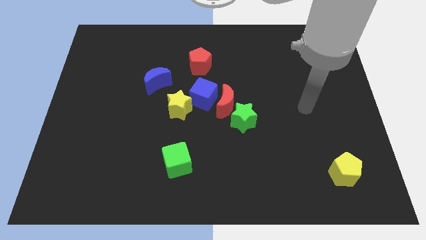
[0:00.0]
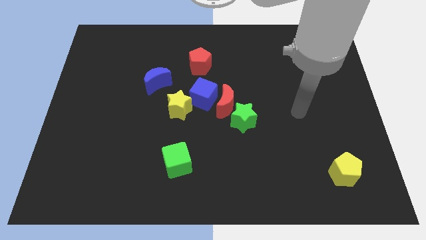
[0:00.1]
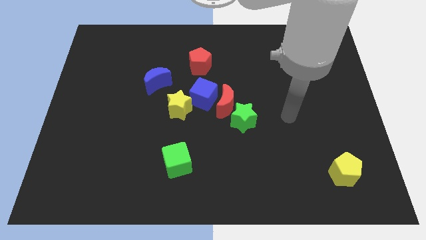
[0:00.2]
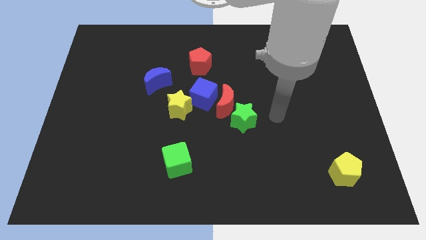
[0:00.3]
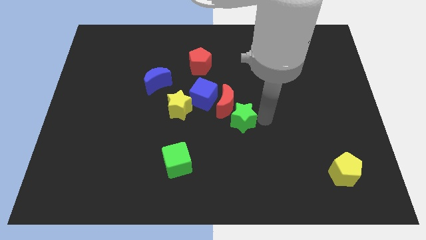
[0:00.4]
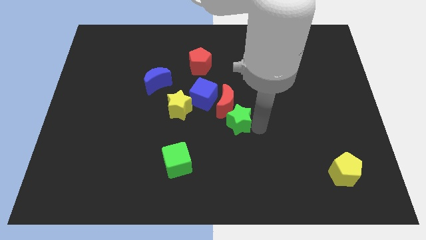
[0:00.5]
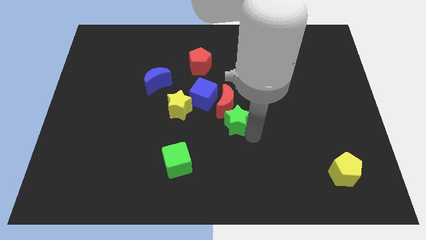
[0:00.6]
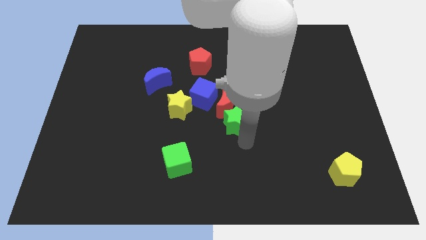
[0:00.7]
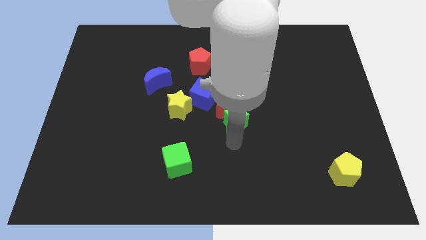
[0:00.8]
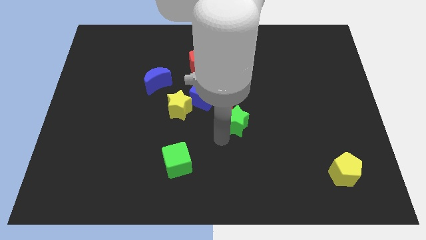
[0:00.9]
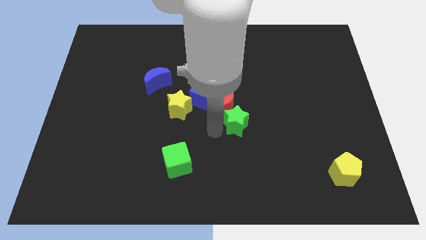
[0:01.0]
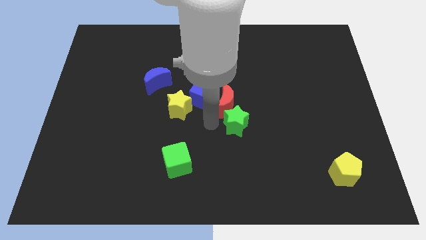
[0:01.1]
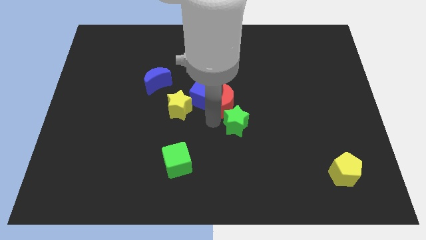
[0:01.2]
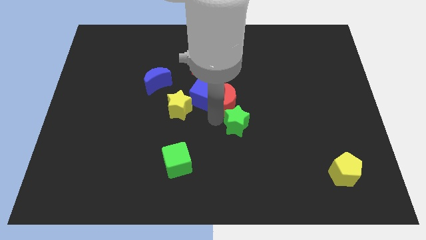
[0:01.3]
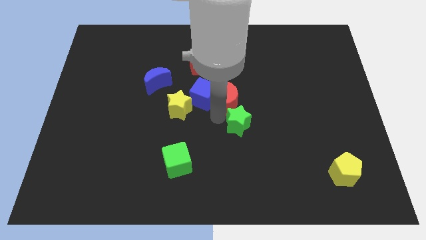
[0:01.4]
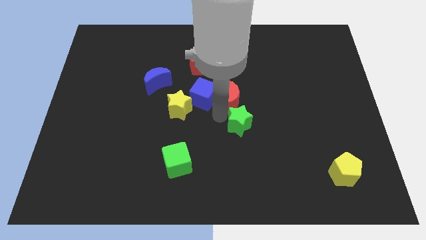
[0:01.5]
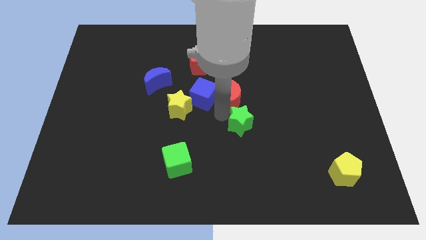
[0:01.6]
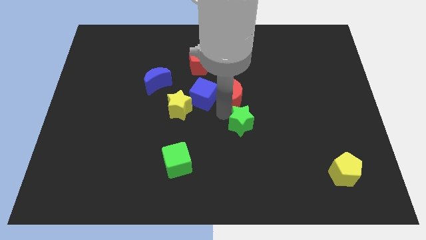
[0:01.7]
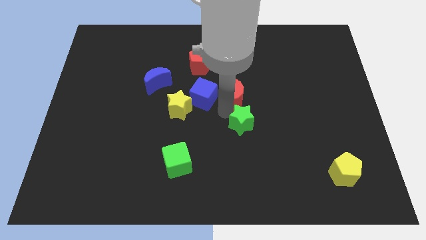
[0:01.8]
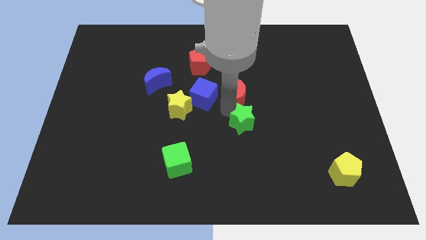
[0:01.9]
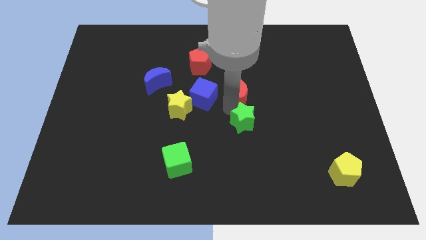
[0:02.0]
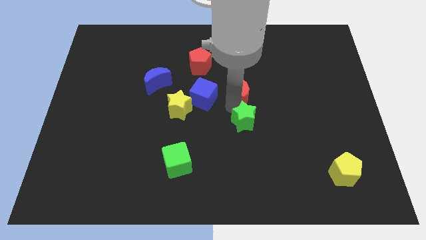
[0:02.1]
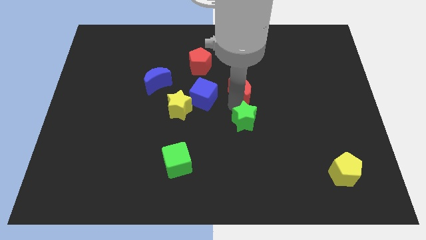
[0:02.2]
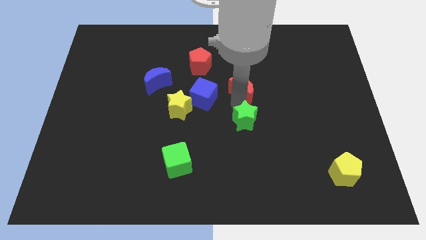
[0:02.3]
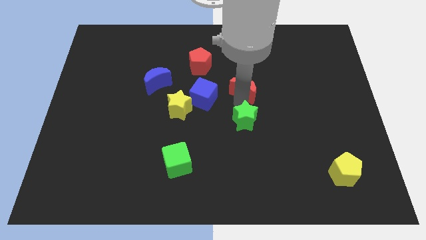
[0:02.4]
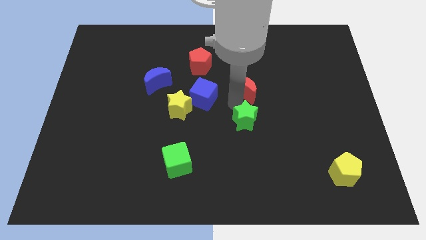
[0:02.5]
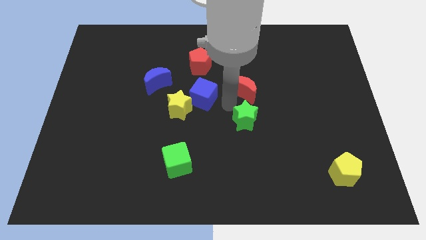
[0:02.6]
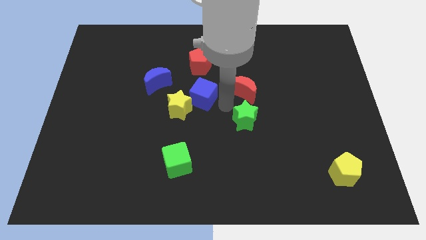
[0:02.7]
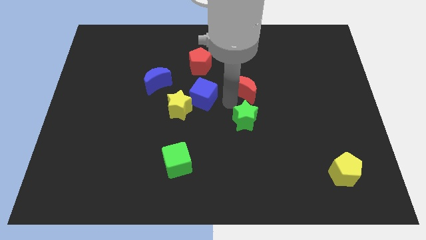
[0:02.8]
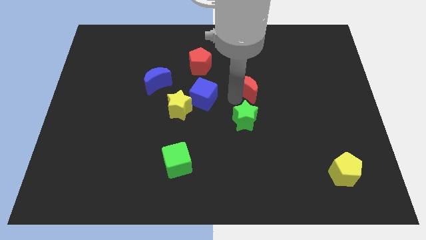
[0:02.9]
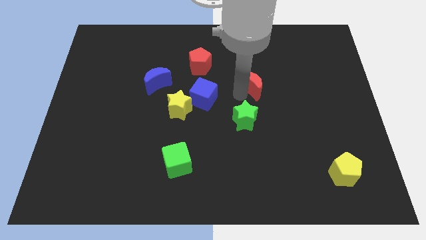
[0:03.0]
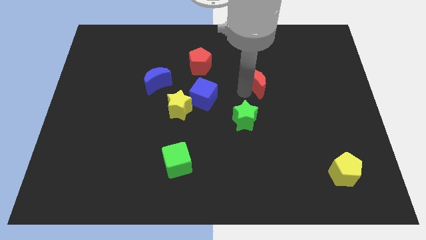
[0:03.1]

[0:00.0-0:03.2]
pull the red moon apart from the blue cube and green star

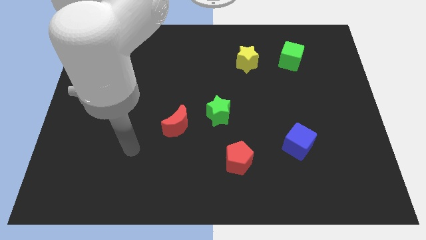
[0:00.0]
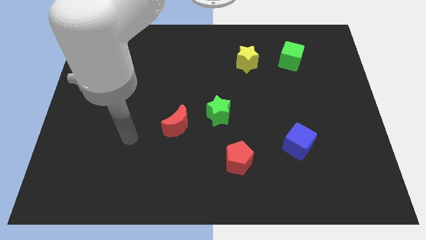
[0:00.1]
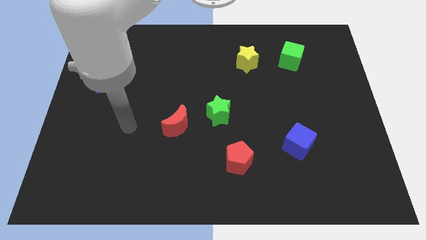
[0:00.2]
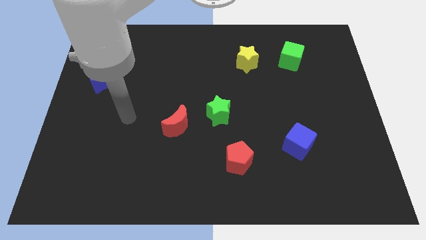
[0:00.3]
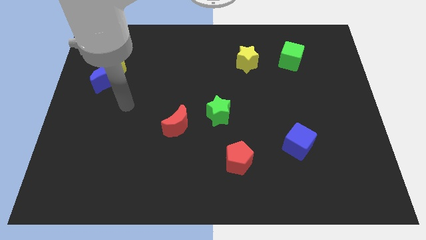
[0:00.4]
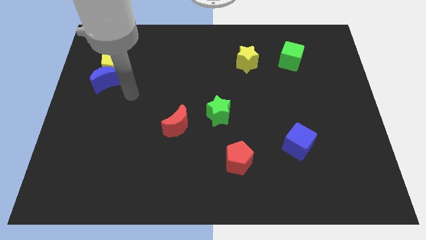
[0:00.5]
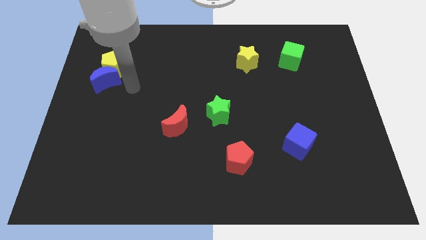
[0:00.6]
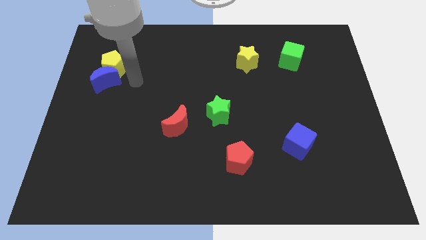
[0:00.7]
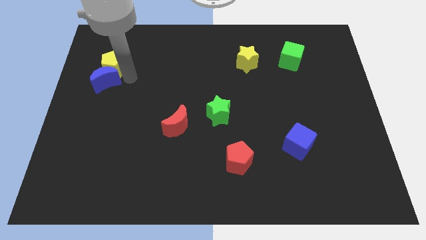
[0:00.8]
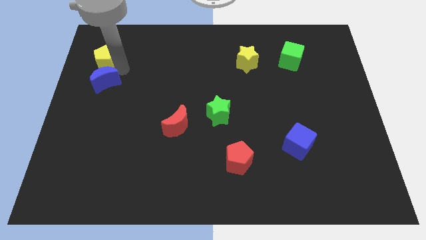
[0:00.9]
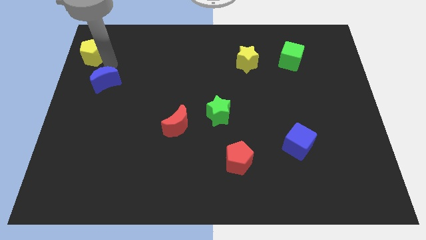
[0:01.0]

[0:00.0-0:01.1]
separate the blue moon from the yellow pentagon

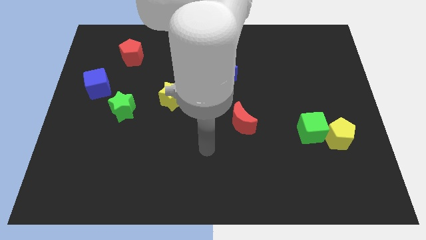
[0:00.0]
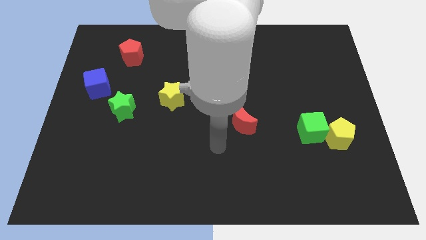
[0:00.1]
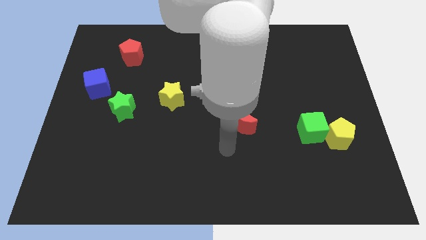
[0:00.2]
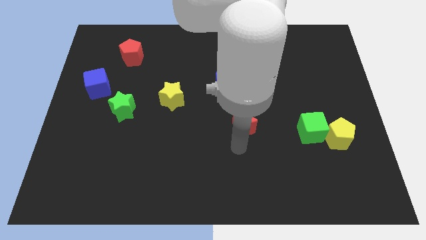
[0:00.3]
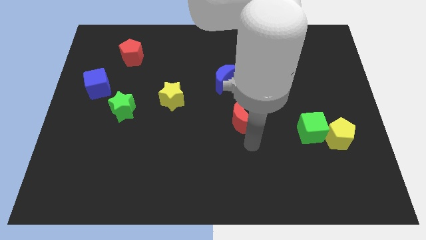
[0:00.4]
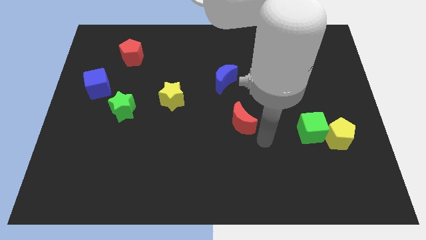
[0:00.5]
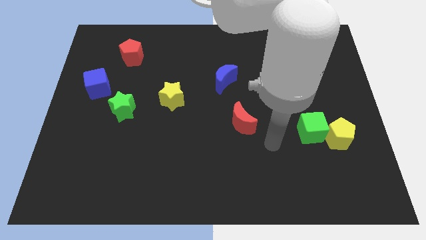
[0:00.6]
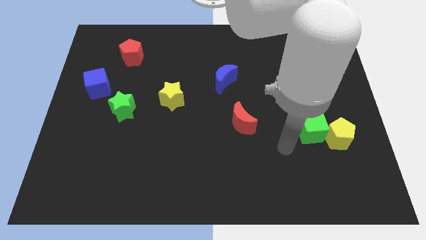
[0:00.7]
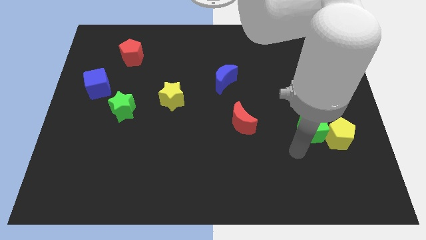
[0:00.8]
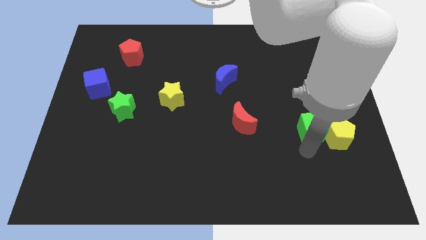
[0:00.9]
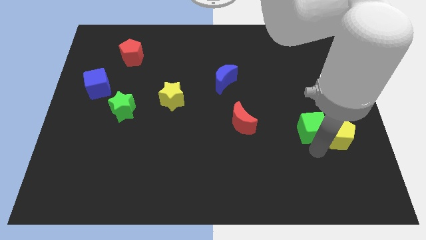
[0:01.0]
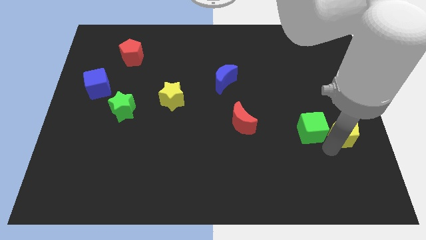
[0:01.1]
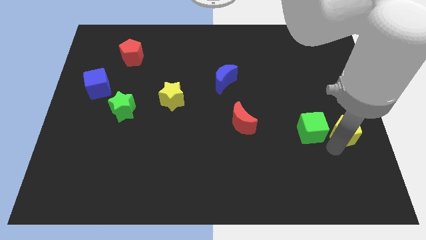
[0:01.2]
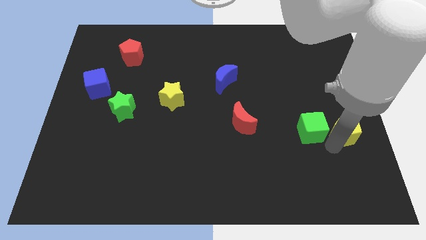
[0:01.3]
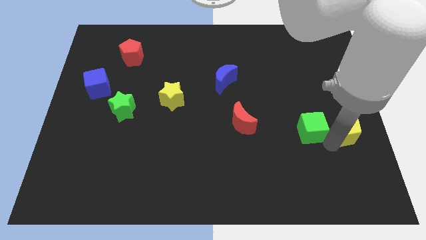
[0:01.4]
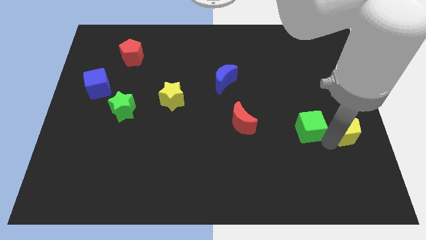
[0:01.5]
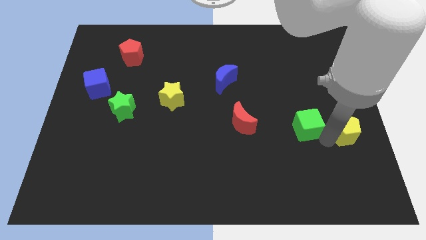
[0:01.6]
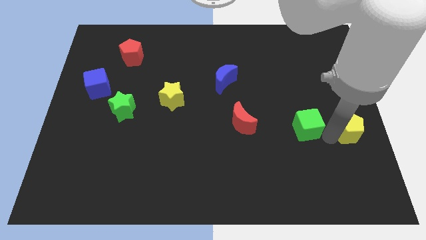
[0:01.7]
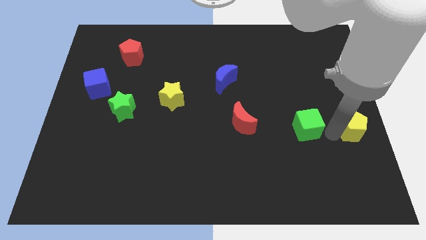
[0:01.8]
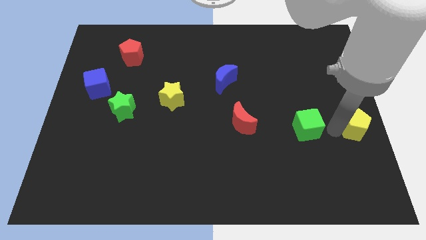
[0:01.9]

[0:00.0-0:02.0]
separate the green cube from the yellow pentagon

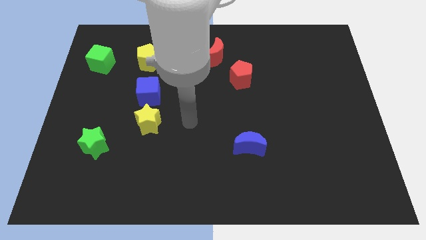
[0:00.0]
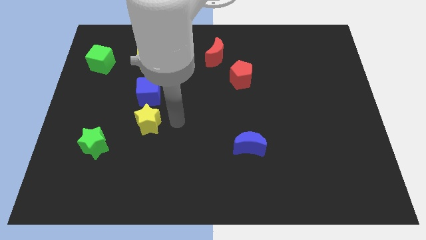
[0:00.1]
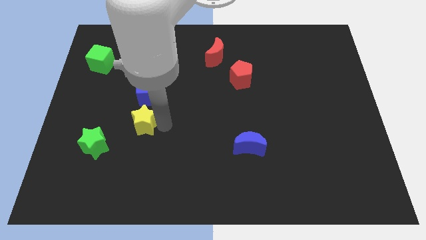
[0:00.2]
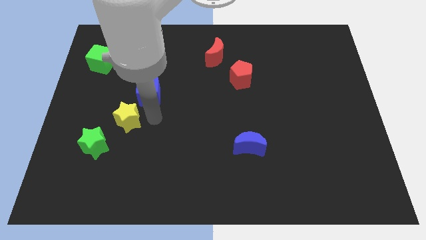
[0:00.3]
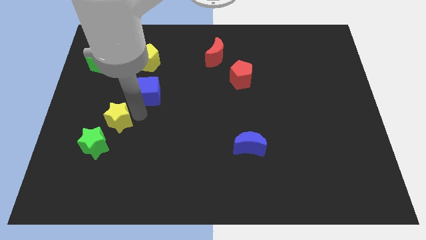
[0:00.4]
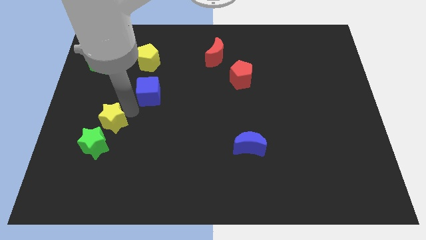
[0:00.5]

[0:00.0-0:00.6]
separate the blue cube from the yellow star

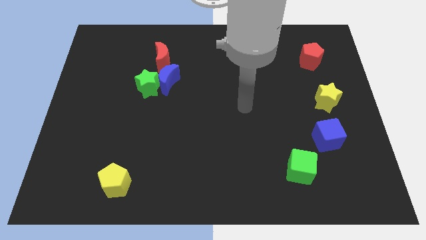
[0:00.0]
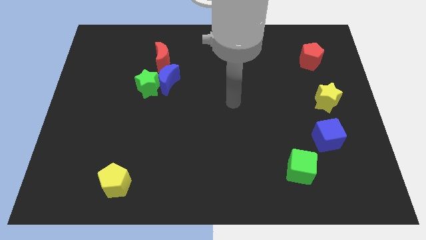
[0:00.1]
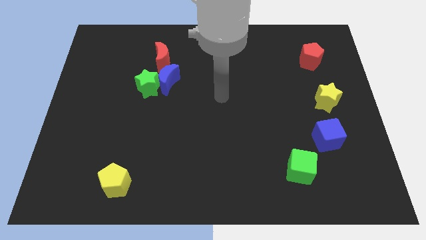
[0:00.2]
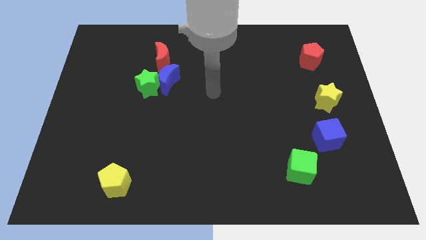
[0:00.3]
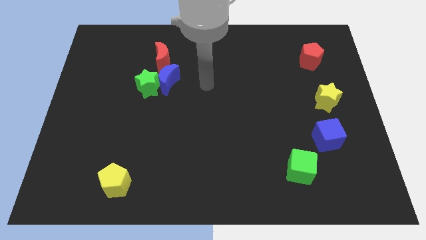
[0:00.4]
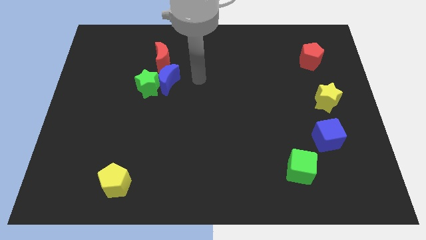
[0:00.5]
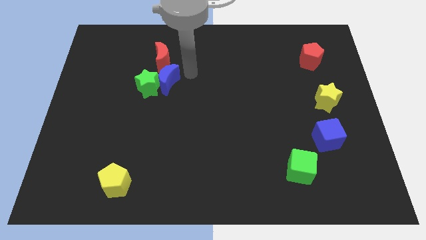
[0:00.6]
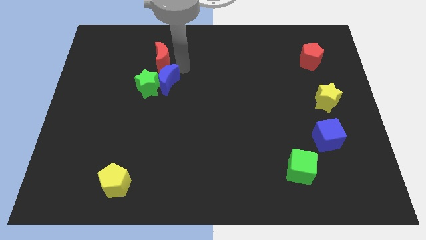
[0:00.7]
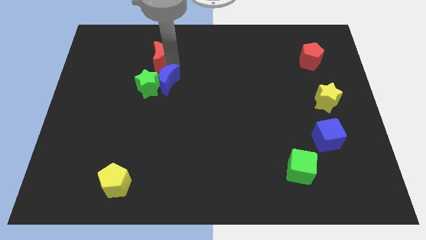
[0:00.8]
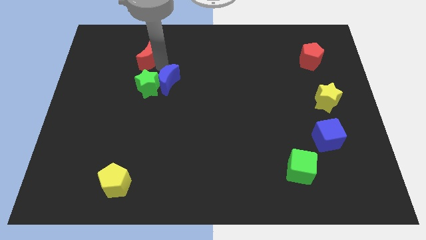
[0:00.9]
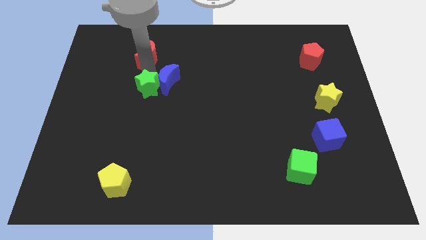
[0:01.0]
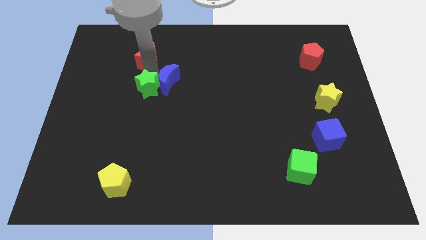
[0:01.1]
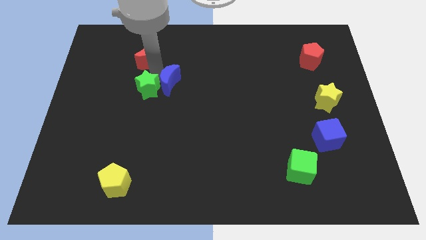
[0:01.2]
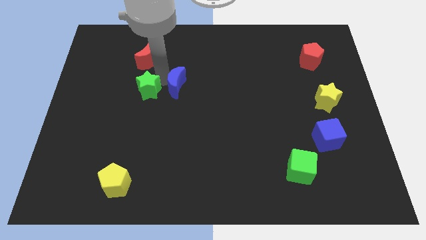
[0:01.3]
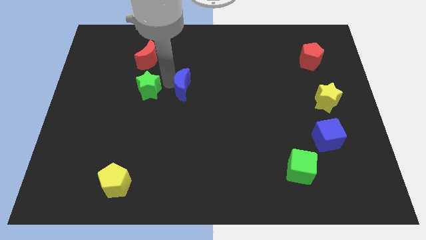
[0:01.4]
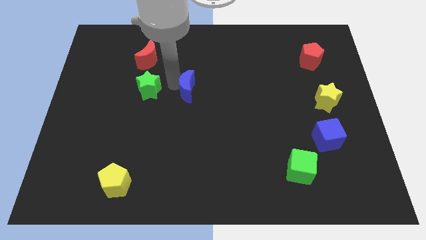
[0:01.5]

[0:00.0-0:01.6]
move the blue moon away from the green star and red moon

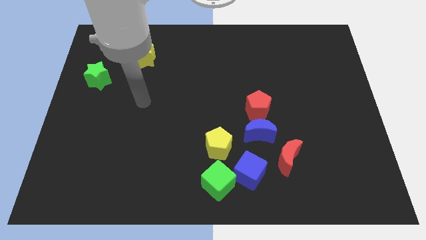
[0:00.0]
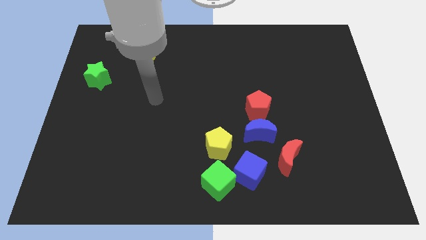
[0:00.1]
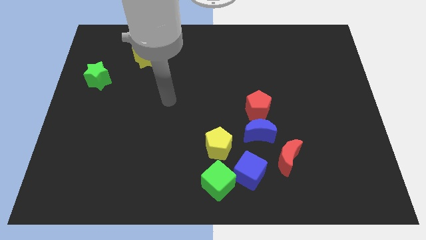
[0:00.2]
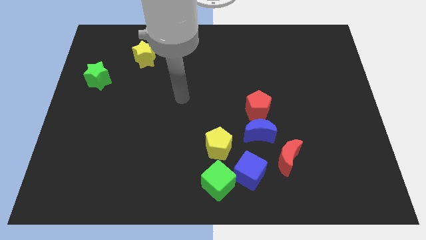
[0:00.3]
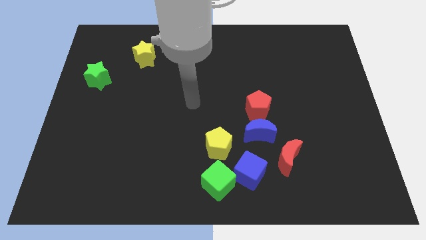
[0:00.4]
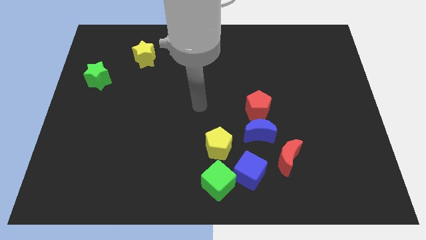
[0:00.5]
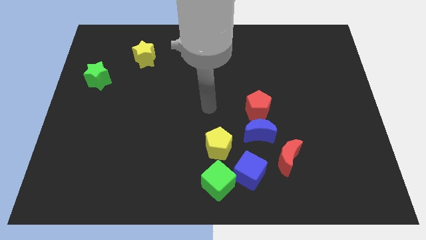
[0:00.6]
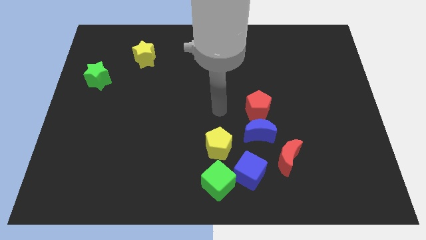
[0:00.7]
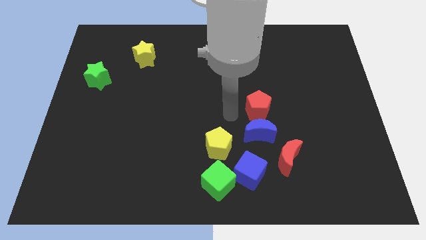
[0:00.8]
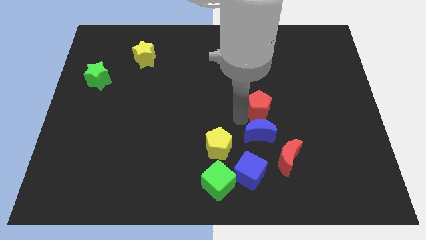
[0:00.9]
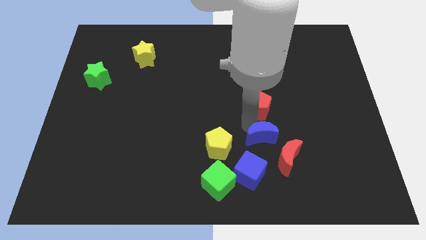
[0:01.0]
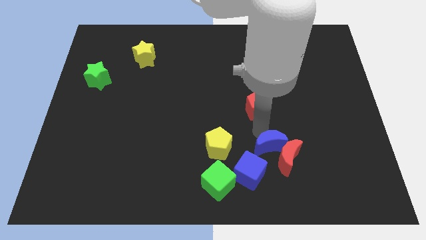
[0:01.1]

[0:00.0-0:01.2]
separate the red pentagon from the blue moon
